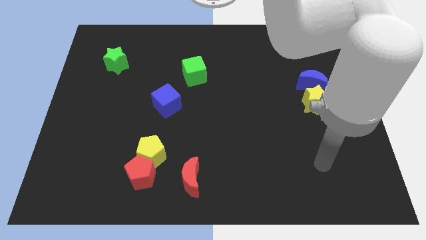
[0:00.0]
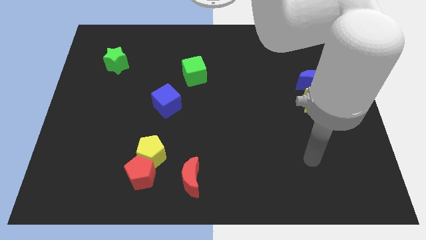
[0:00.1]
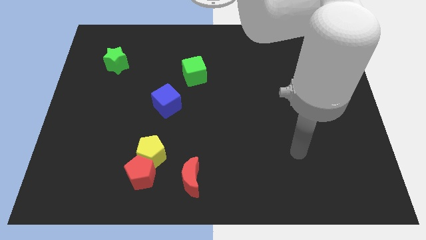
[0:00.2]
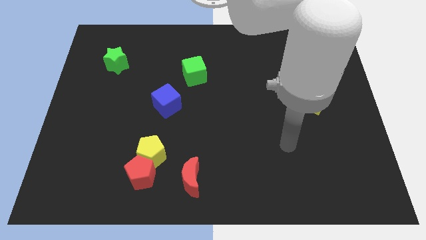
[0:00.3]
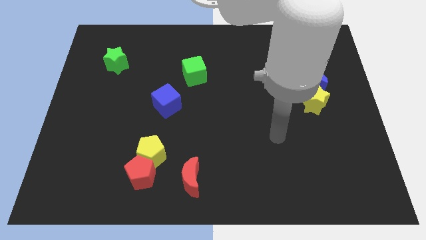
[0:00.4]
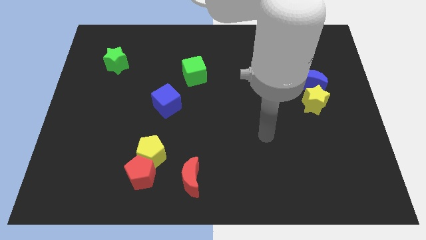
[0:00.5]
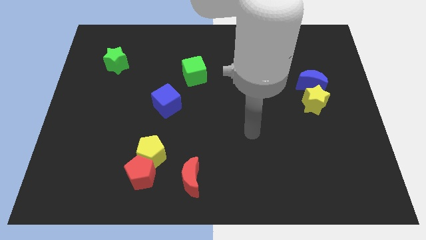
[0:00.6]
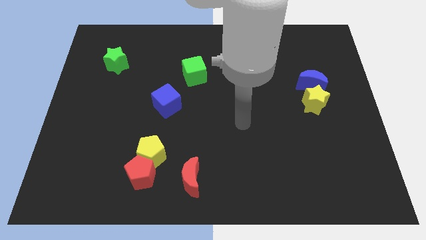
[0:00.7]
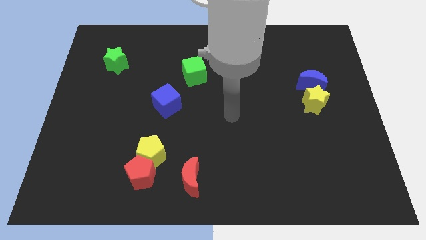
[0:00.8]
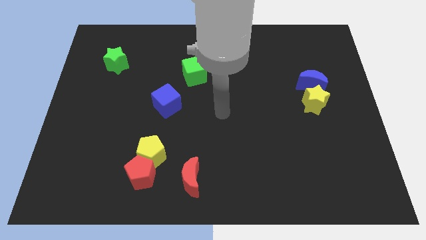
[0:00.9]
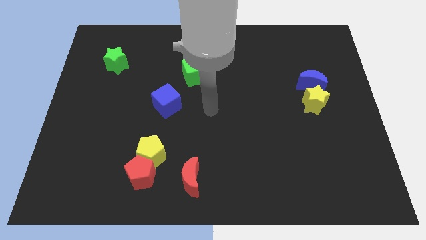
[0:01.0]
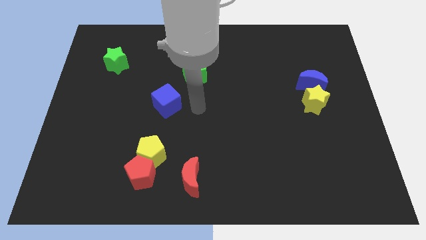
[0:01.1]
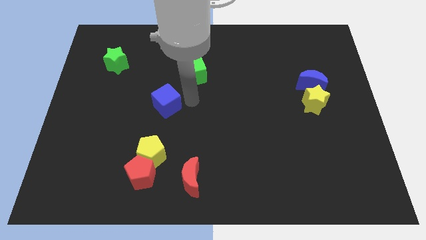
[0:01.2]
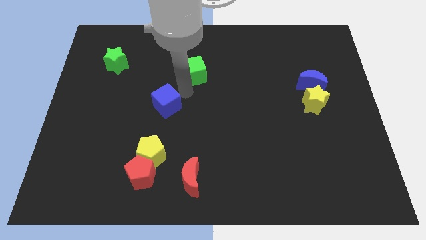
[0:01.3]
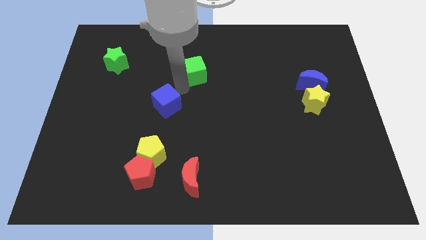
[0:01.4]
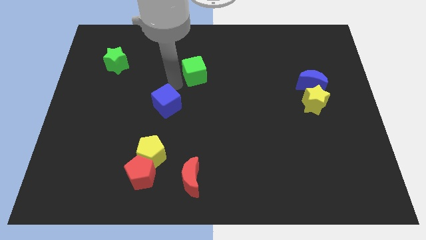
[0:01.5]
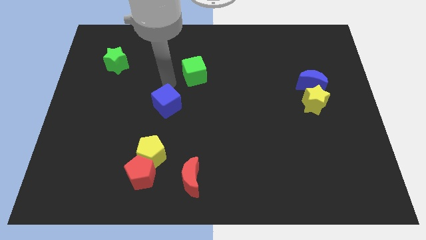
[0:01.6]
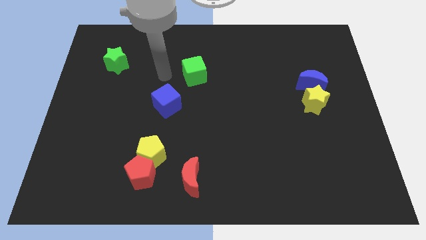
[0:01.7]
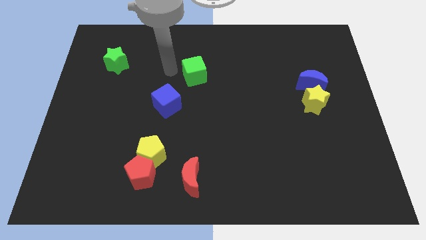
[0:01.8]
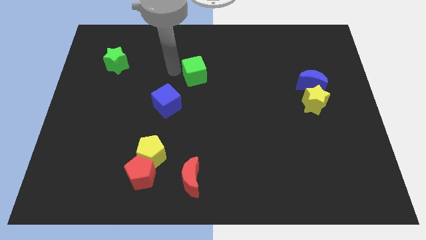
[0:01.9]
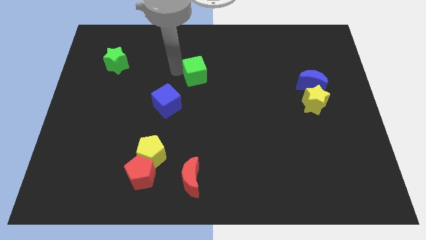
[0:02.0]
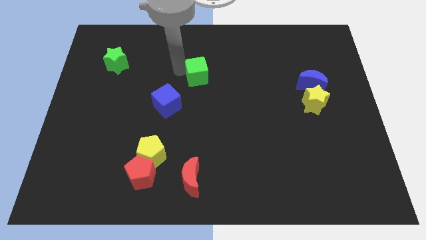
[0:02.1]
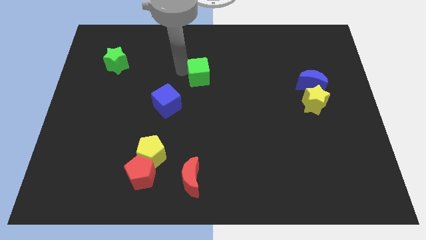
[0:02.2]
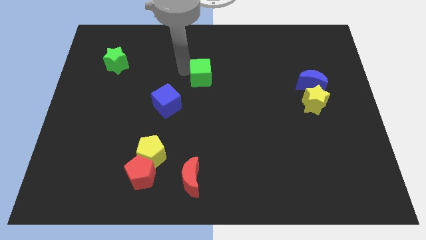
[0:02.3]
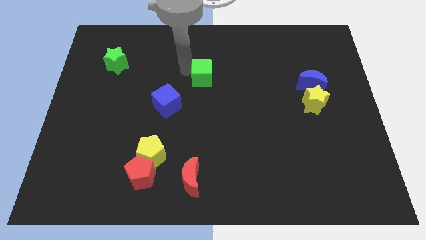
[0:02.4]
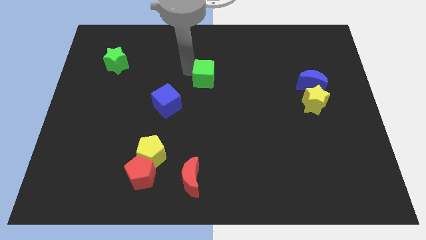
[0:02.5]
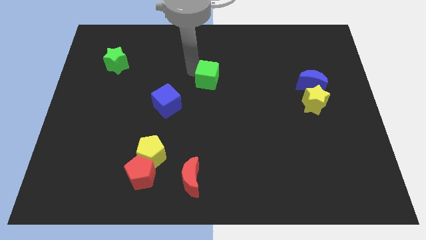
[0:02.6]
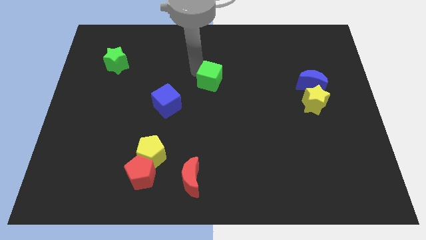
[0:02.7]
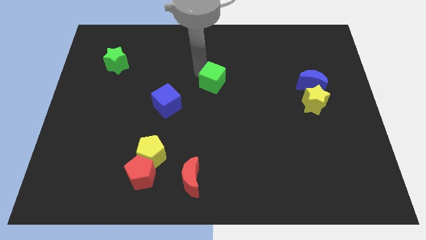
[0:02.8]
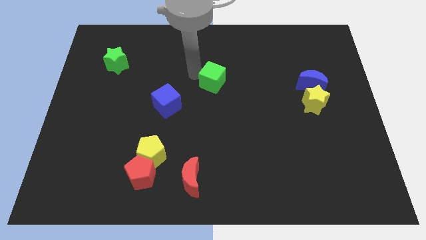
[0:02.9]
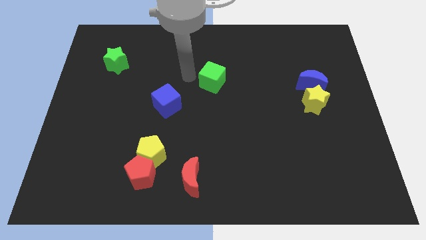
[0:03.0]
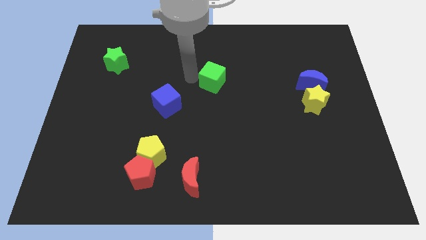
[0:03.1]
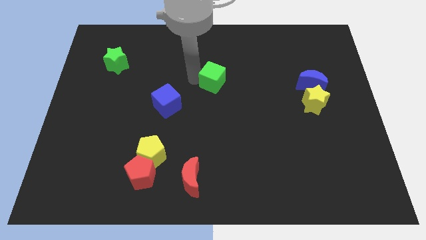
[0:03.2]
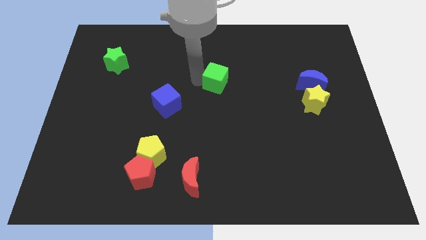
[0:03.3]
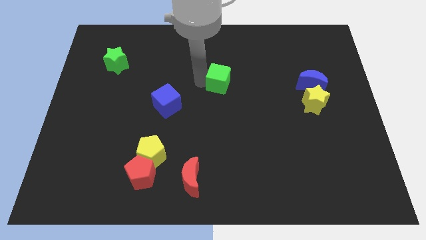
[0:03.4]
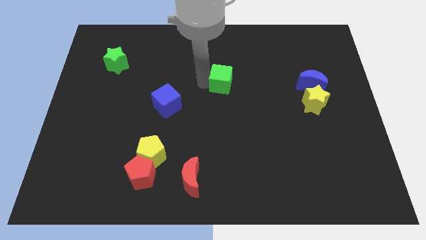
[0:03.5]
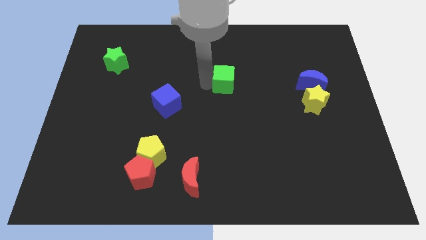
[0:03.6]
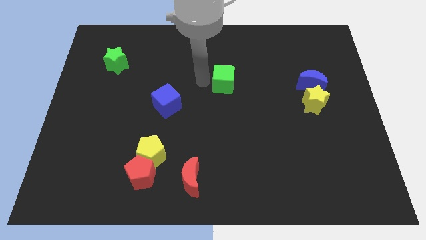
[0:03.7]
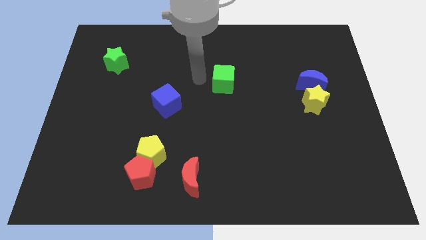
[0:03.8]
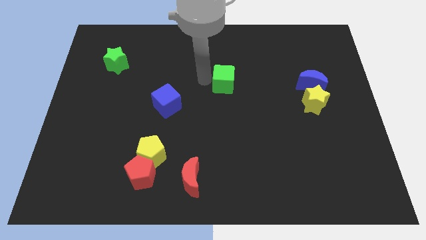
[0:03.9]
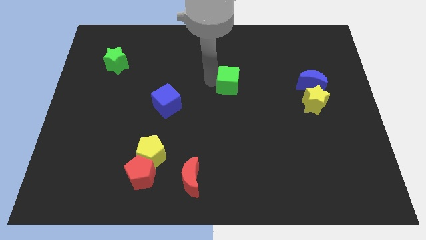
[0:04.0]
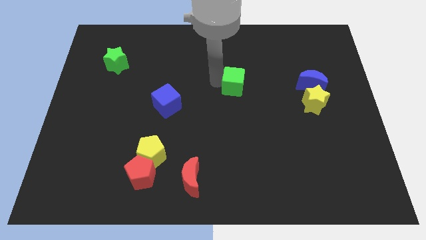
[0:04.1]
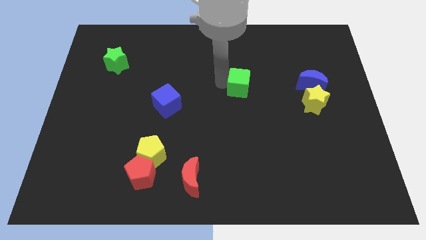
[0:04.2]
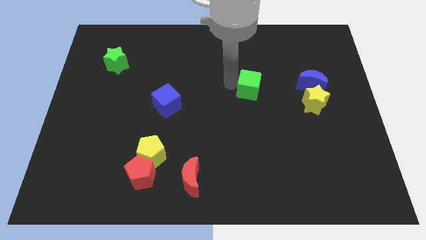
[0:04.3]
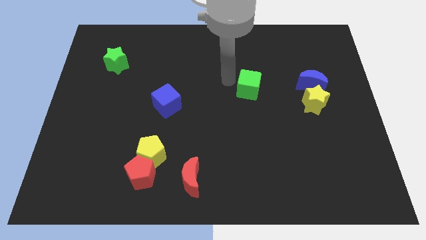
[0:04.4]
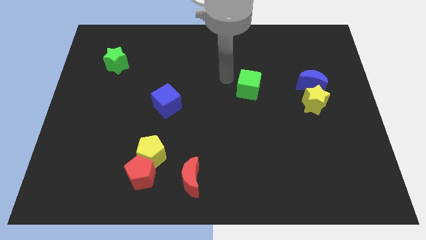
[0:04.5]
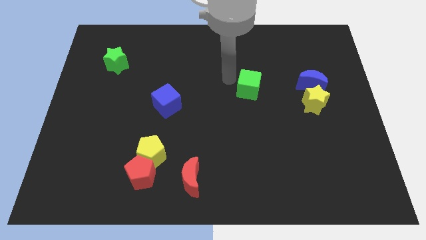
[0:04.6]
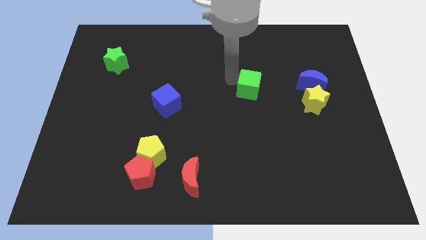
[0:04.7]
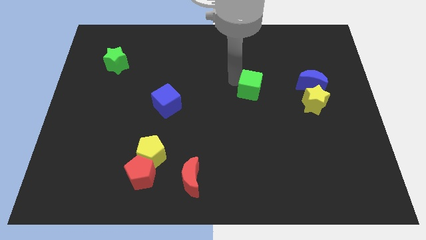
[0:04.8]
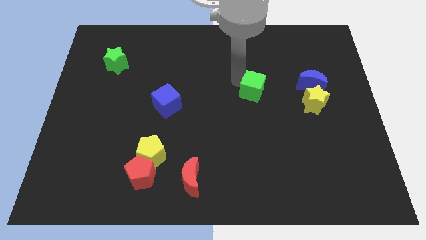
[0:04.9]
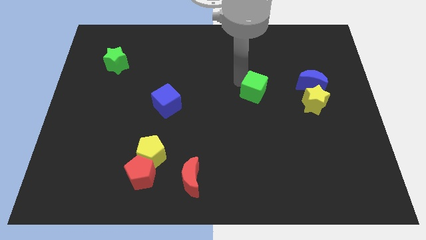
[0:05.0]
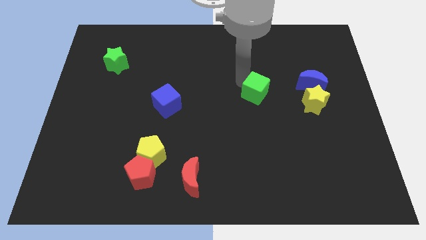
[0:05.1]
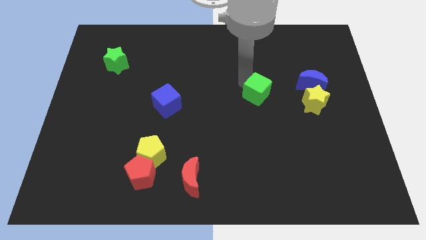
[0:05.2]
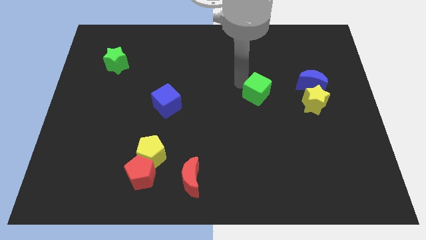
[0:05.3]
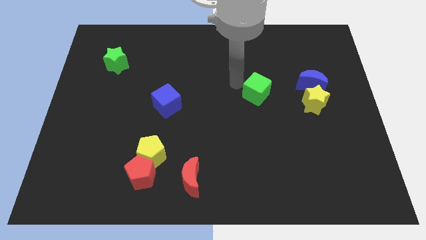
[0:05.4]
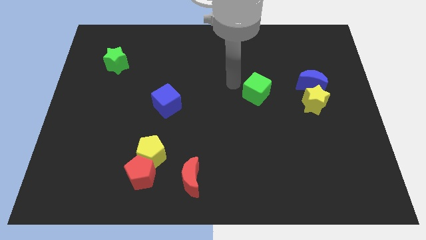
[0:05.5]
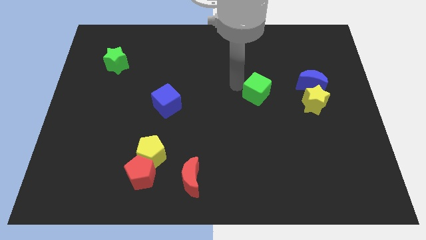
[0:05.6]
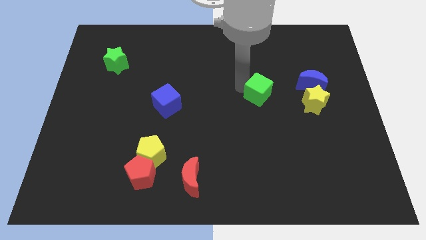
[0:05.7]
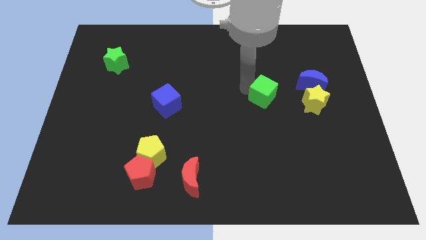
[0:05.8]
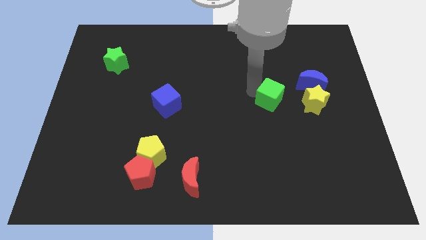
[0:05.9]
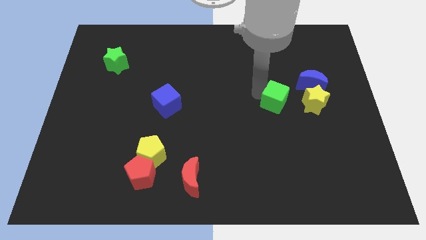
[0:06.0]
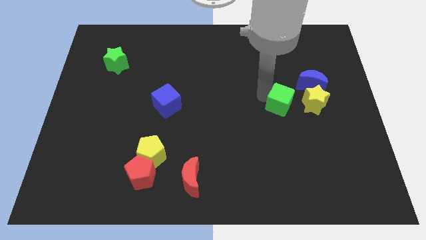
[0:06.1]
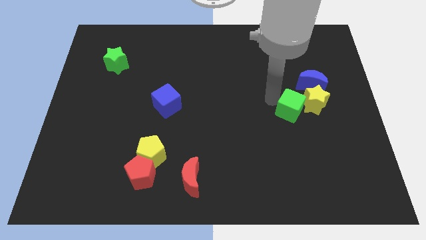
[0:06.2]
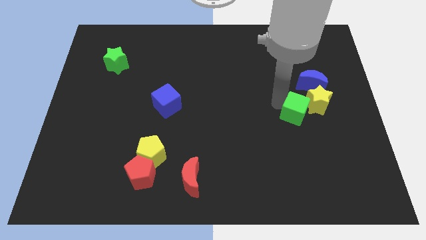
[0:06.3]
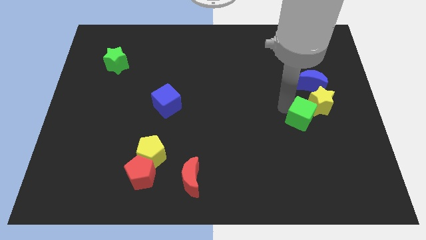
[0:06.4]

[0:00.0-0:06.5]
put the green cube below the blue moon

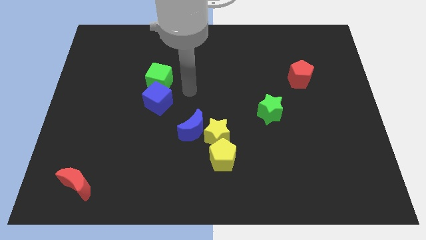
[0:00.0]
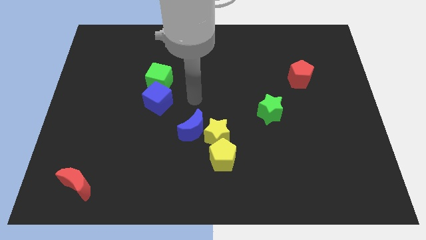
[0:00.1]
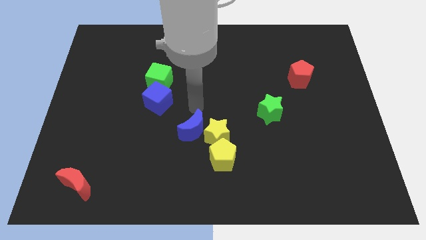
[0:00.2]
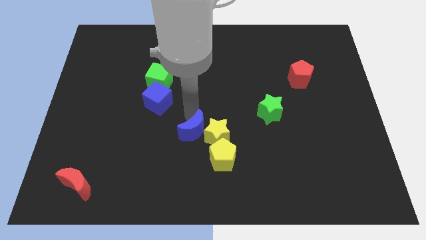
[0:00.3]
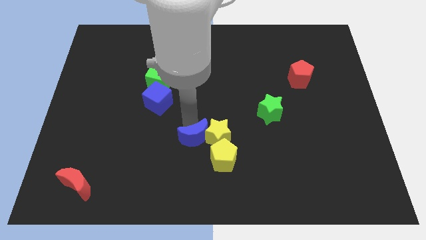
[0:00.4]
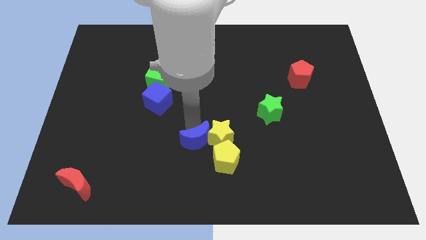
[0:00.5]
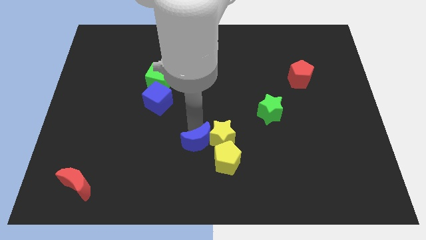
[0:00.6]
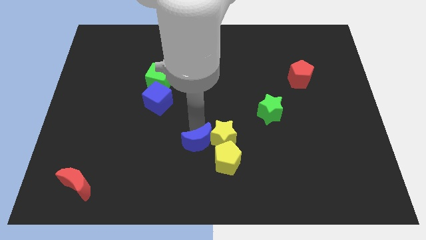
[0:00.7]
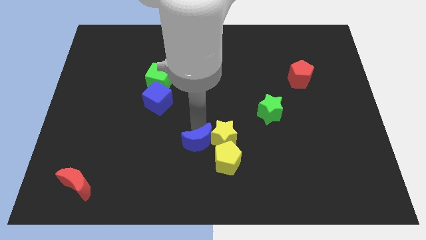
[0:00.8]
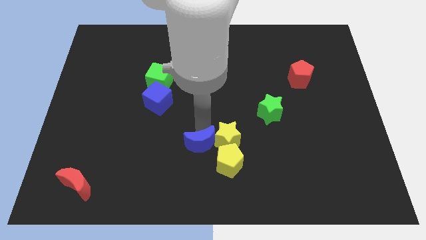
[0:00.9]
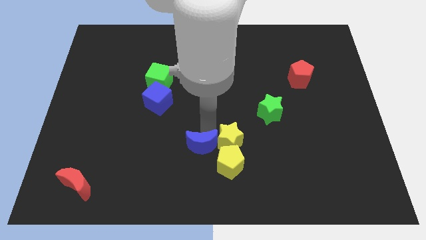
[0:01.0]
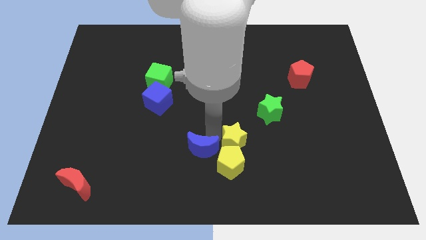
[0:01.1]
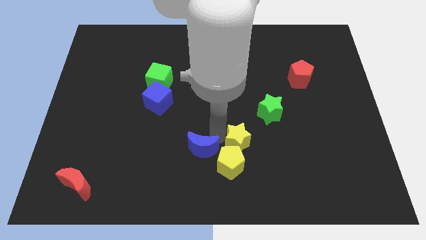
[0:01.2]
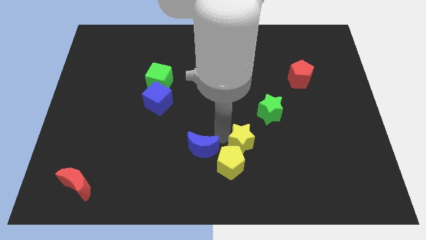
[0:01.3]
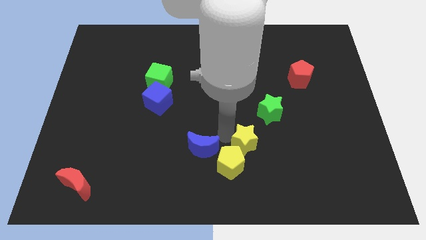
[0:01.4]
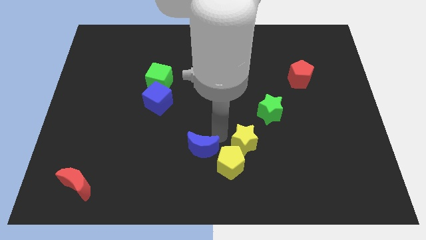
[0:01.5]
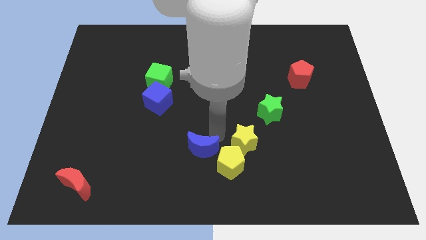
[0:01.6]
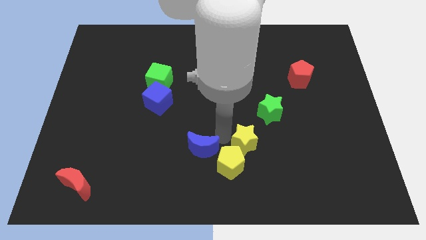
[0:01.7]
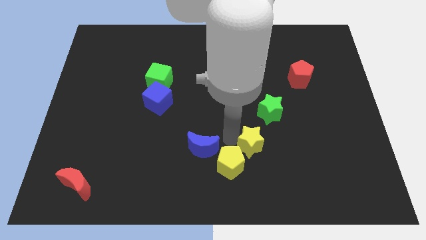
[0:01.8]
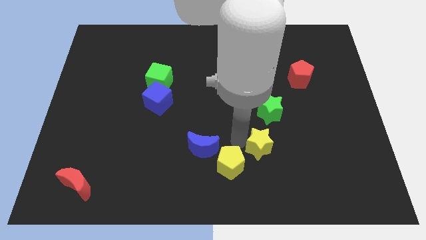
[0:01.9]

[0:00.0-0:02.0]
slide the yellow star to the bottom side of the green star
